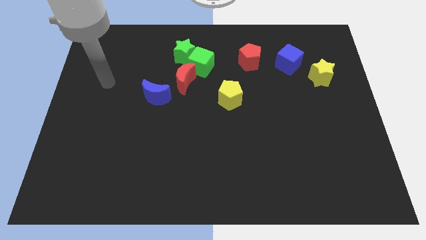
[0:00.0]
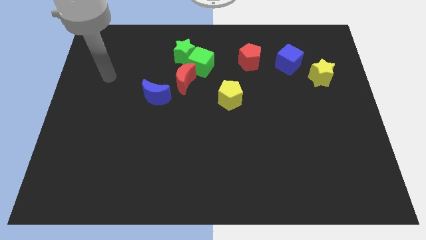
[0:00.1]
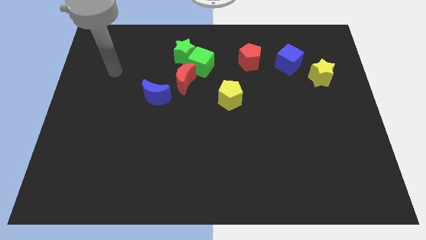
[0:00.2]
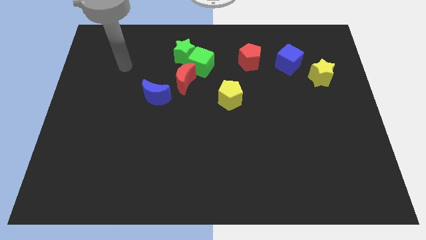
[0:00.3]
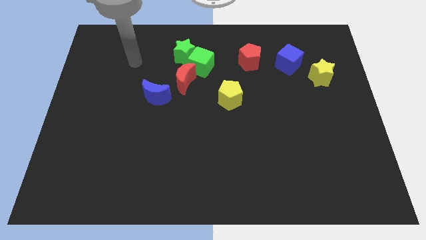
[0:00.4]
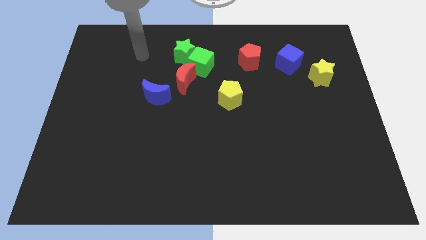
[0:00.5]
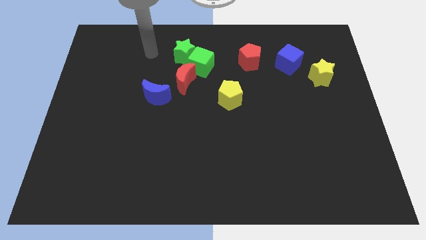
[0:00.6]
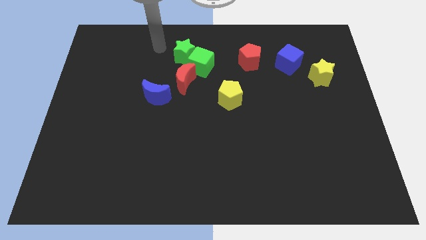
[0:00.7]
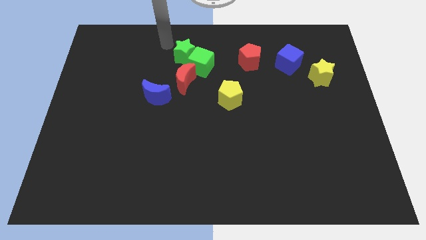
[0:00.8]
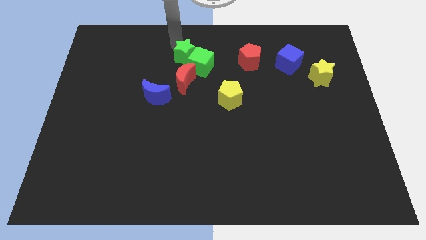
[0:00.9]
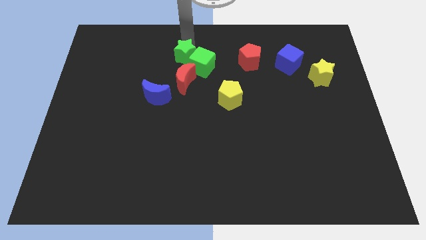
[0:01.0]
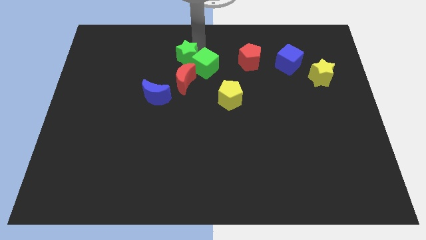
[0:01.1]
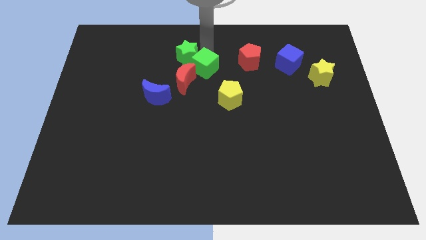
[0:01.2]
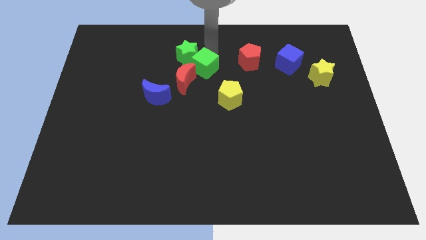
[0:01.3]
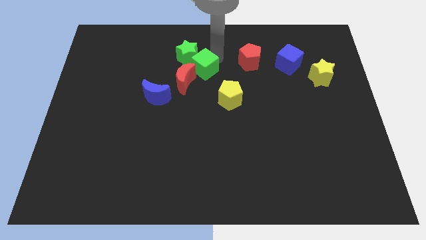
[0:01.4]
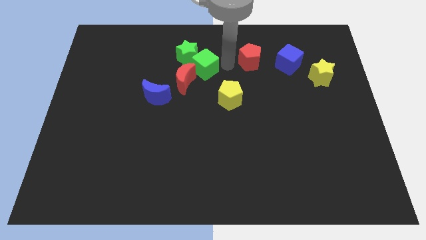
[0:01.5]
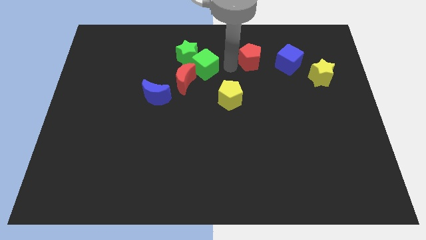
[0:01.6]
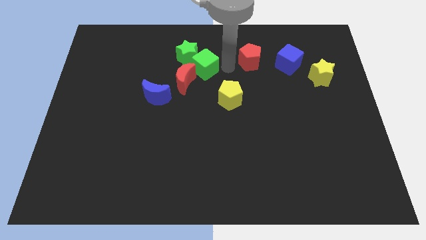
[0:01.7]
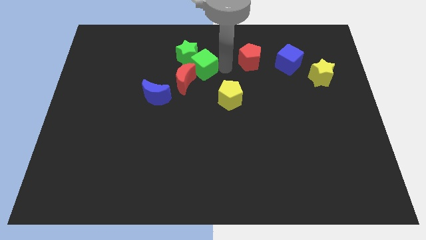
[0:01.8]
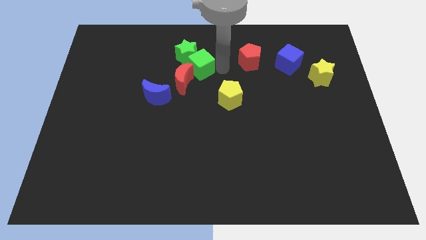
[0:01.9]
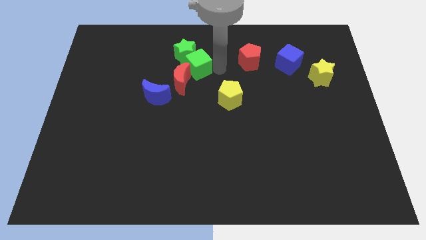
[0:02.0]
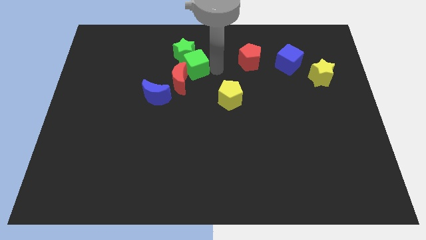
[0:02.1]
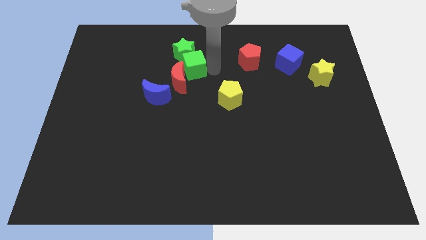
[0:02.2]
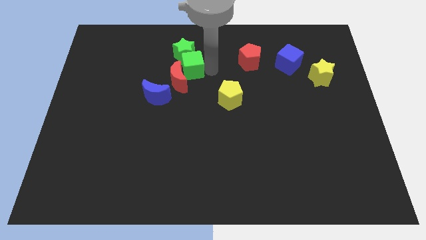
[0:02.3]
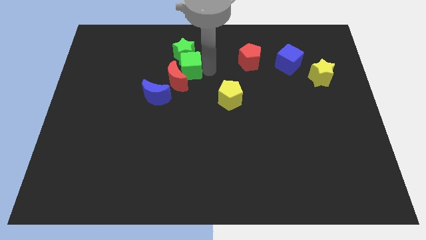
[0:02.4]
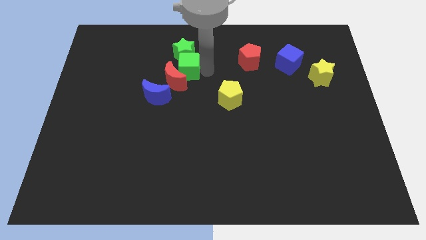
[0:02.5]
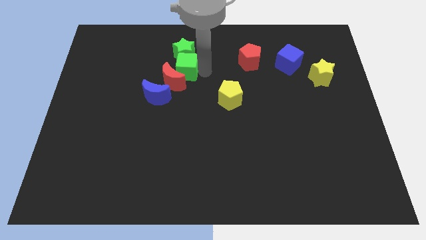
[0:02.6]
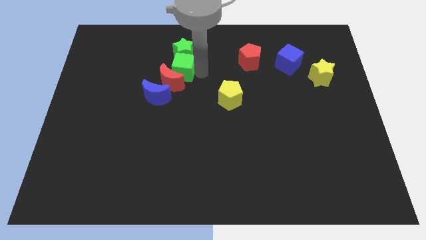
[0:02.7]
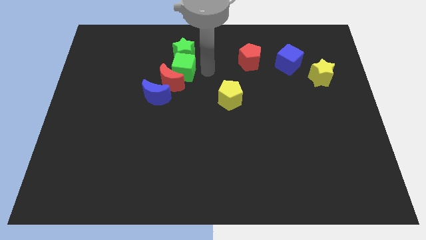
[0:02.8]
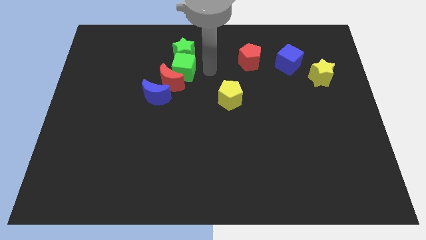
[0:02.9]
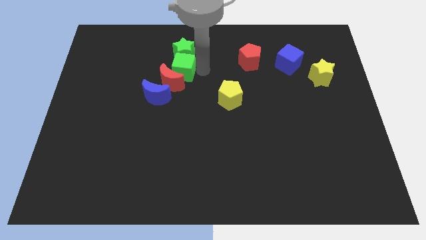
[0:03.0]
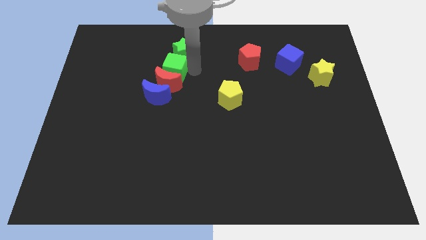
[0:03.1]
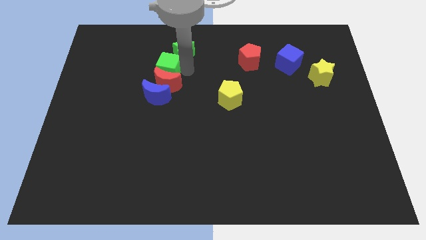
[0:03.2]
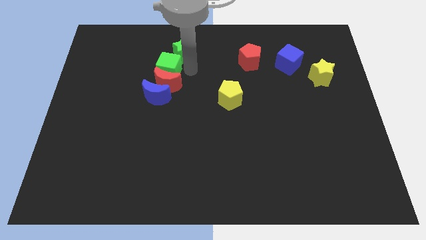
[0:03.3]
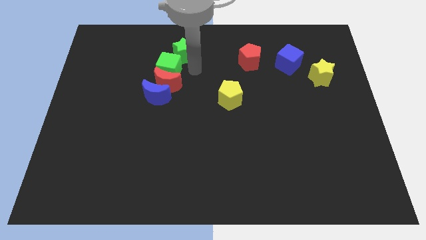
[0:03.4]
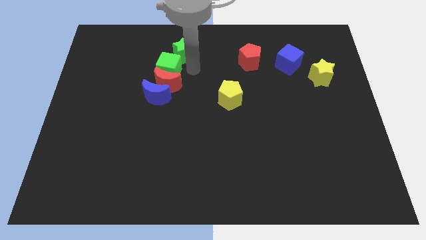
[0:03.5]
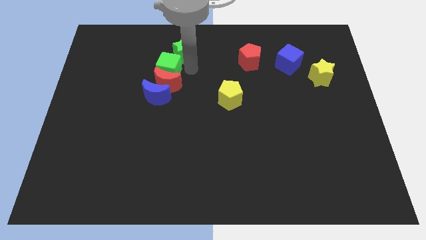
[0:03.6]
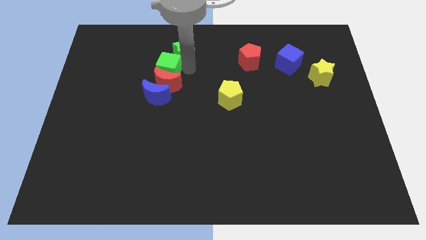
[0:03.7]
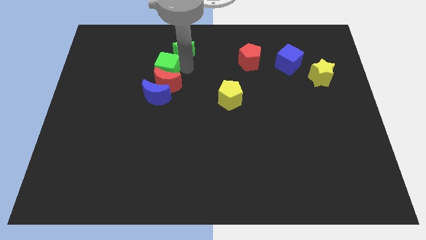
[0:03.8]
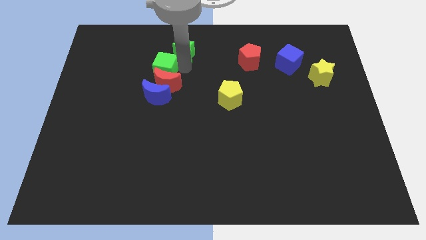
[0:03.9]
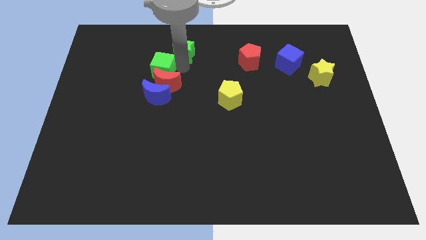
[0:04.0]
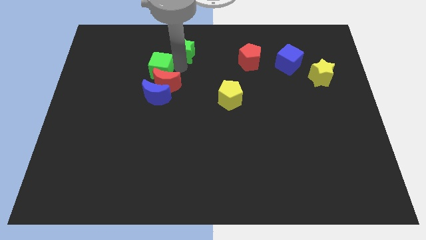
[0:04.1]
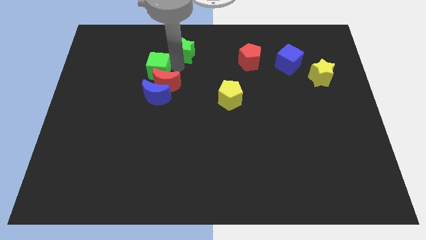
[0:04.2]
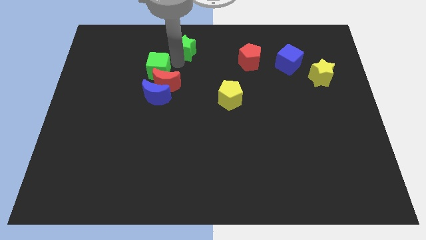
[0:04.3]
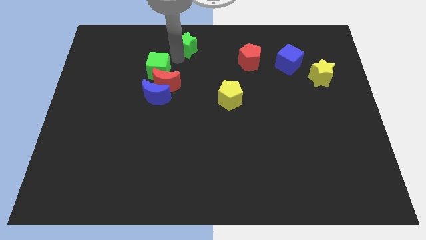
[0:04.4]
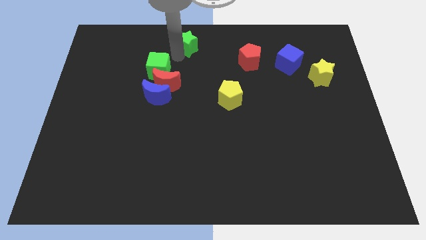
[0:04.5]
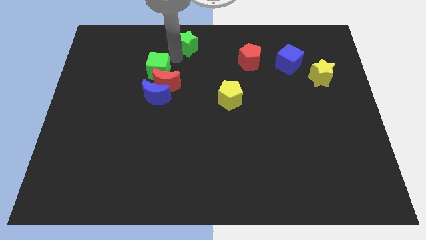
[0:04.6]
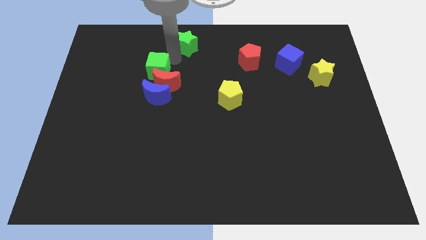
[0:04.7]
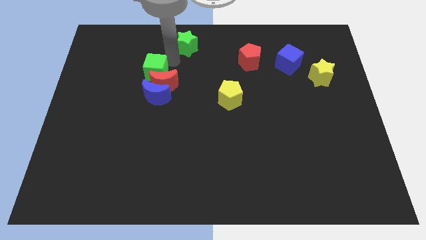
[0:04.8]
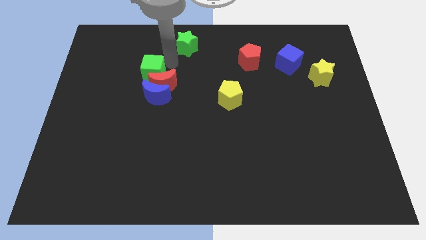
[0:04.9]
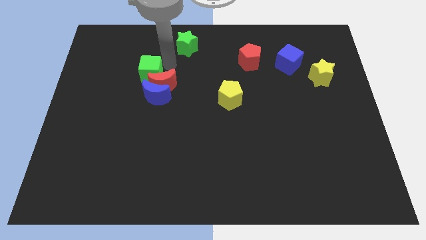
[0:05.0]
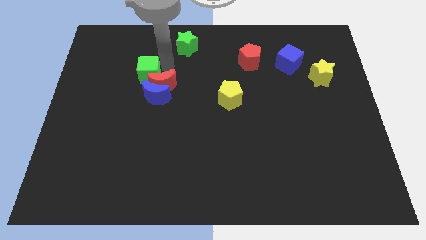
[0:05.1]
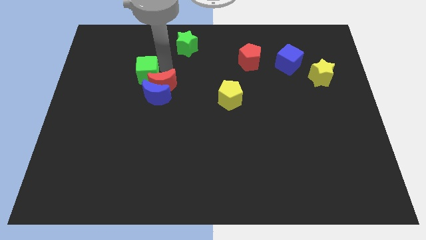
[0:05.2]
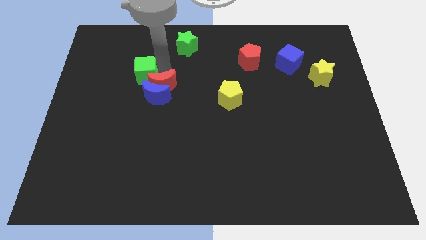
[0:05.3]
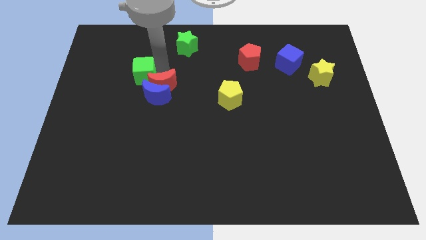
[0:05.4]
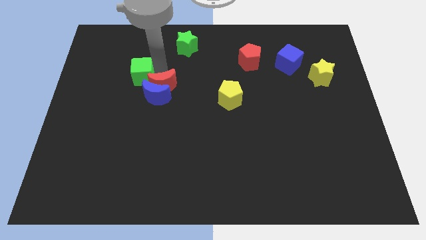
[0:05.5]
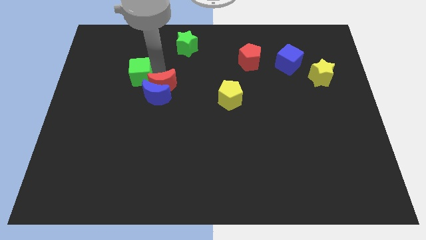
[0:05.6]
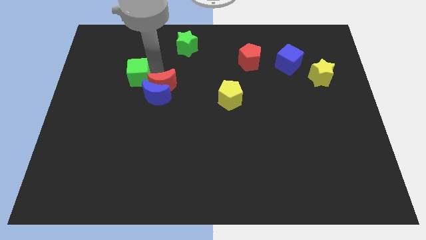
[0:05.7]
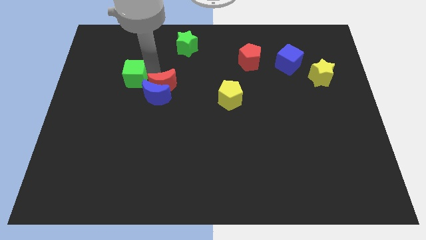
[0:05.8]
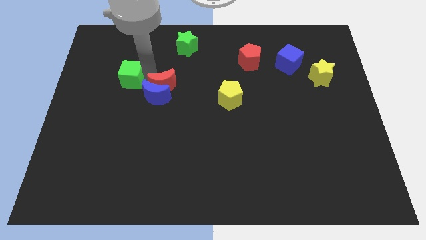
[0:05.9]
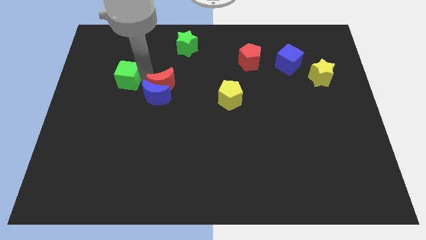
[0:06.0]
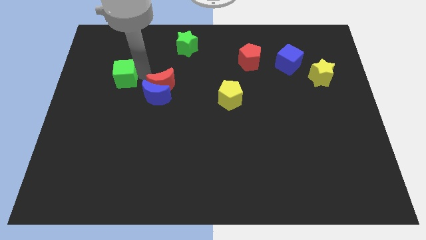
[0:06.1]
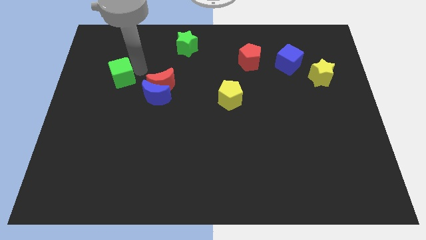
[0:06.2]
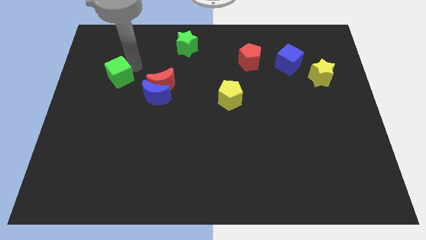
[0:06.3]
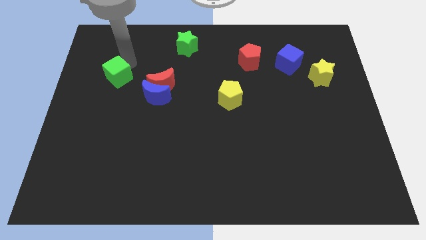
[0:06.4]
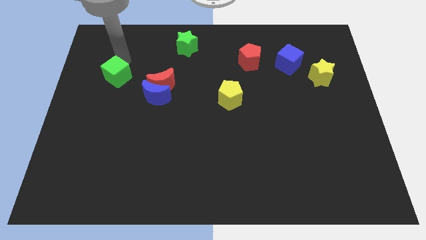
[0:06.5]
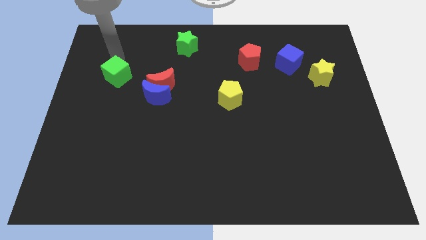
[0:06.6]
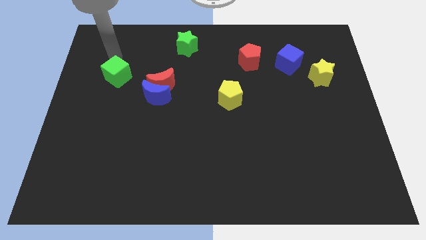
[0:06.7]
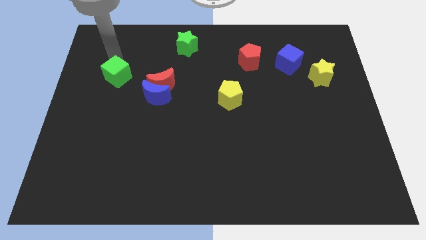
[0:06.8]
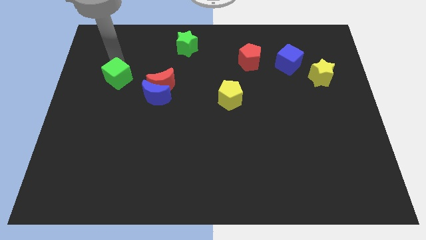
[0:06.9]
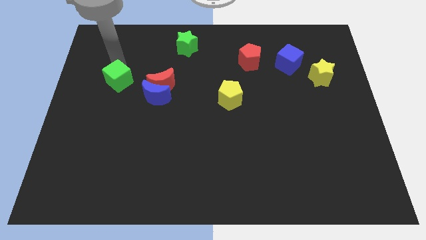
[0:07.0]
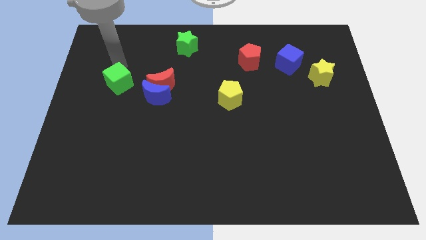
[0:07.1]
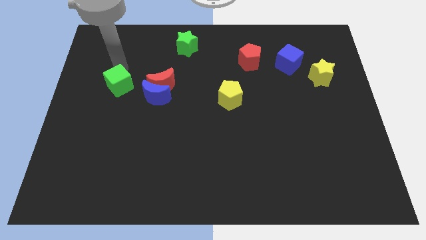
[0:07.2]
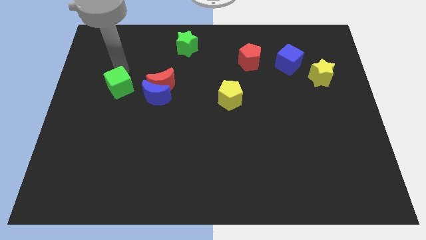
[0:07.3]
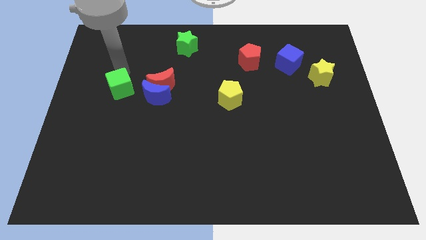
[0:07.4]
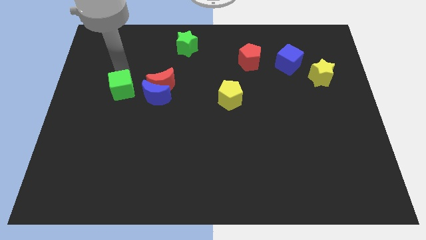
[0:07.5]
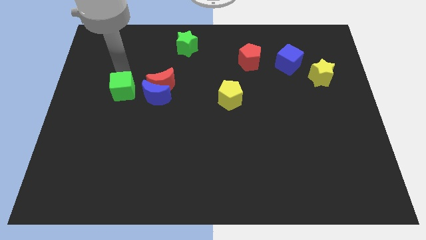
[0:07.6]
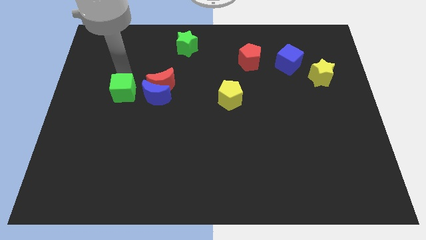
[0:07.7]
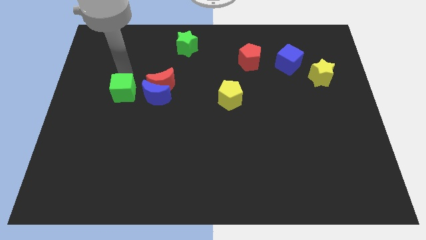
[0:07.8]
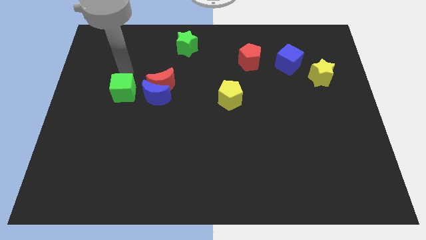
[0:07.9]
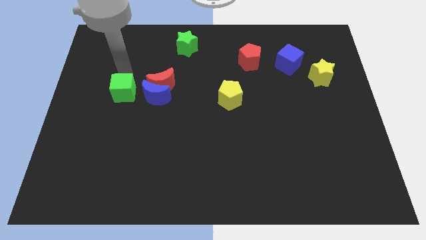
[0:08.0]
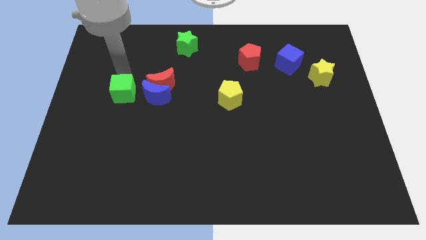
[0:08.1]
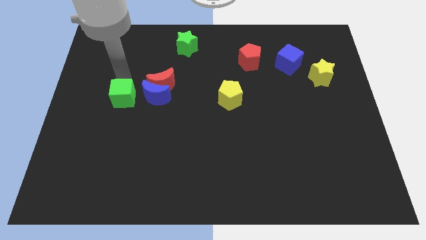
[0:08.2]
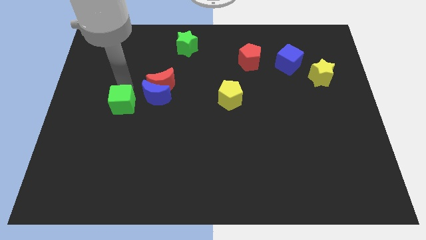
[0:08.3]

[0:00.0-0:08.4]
push the green cube diagonally downwards and to the left
